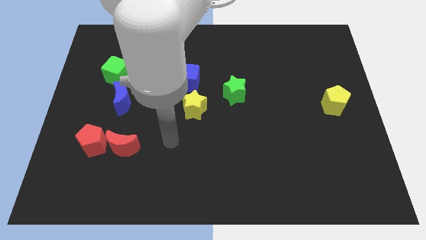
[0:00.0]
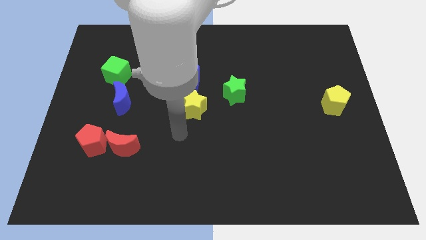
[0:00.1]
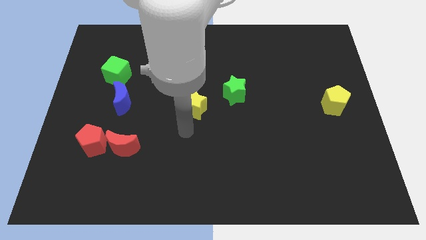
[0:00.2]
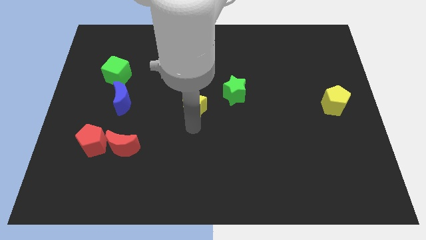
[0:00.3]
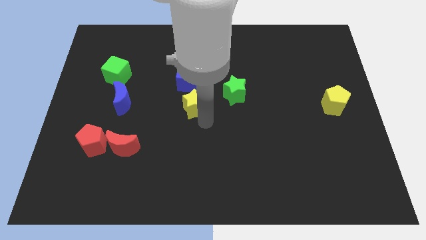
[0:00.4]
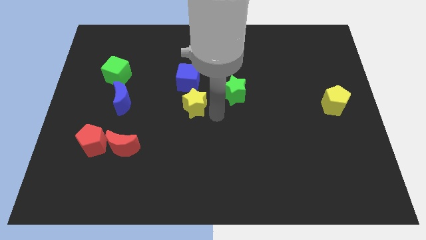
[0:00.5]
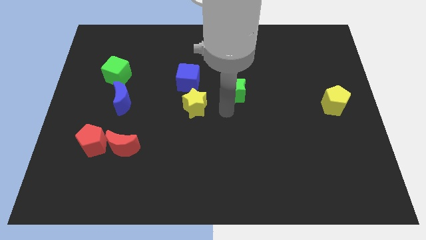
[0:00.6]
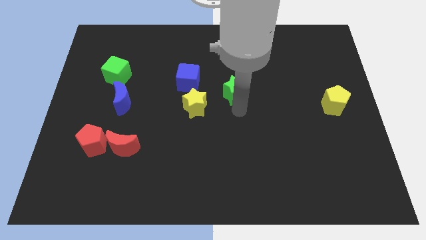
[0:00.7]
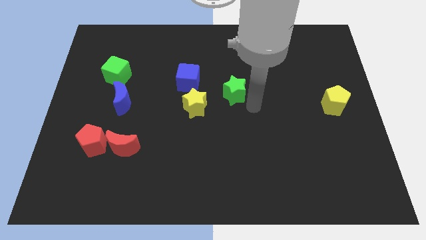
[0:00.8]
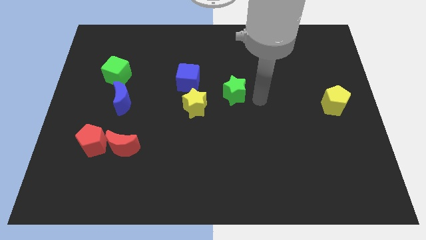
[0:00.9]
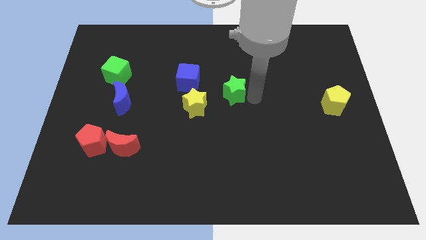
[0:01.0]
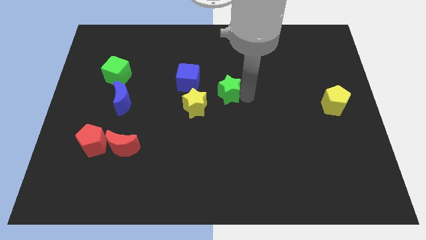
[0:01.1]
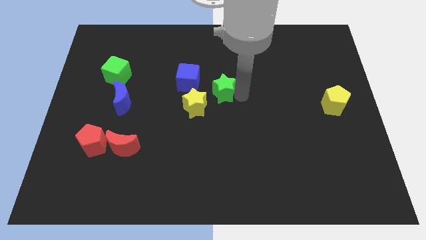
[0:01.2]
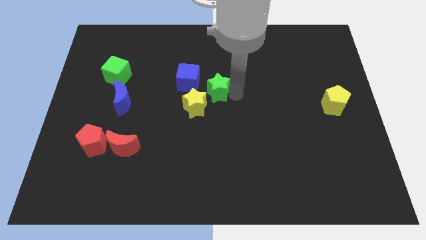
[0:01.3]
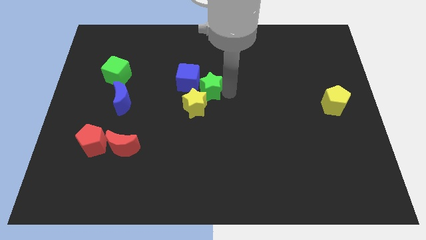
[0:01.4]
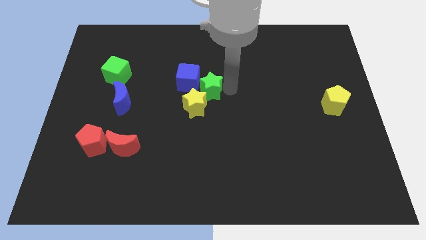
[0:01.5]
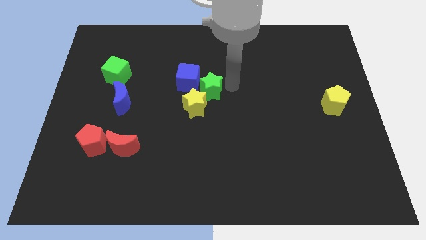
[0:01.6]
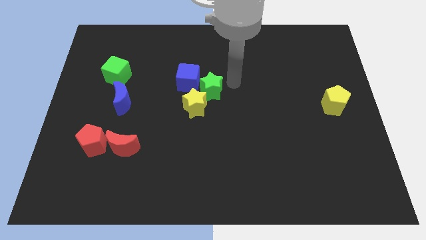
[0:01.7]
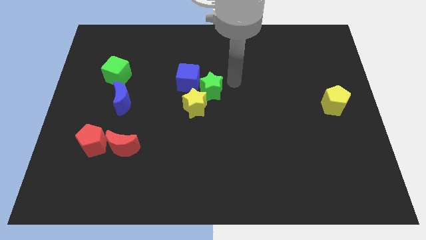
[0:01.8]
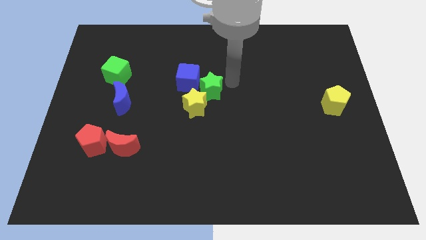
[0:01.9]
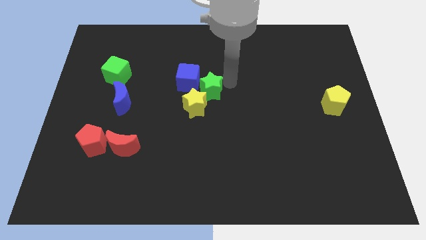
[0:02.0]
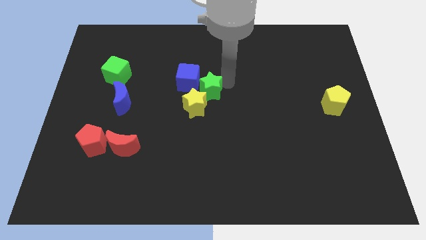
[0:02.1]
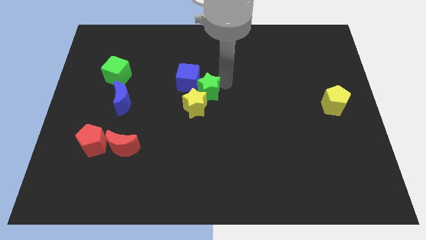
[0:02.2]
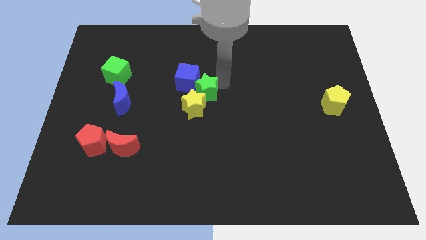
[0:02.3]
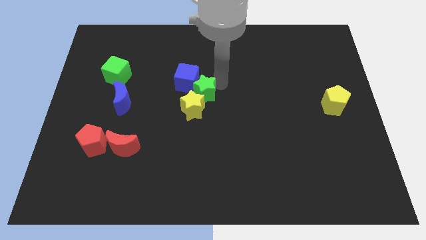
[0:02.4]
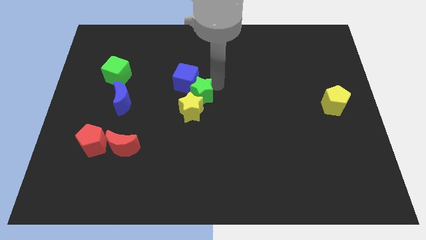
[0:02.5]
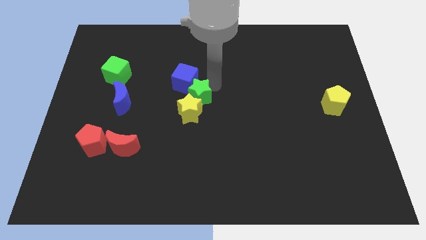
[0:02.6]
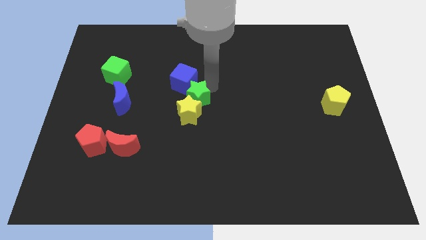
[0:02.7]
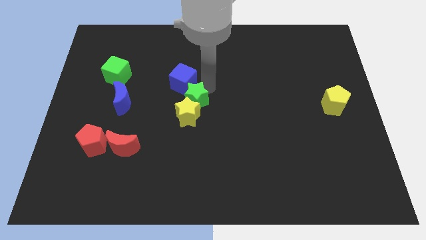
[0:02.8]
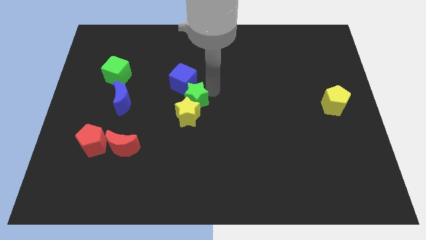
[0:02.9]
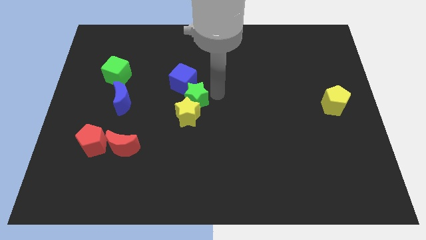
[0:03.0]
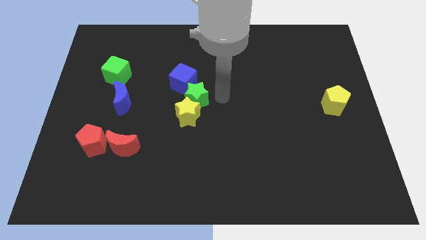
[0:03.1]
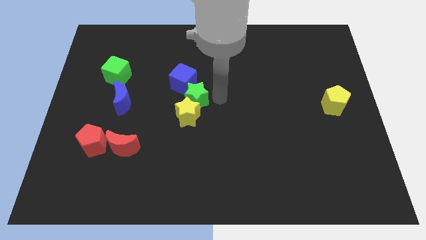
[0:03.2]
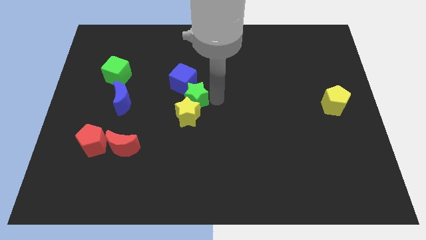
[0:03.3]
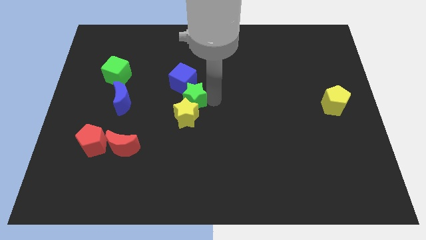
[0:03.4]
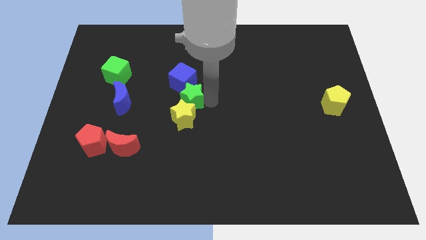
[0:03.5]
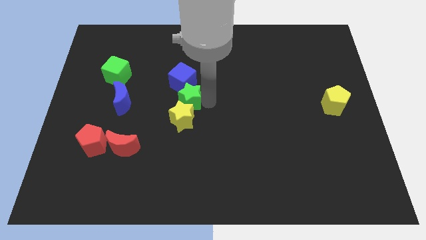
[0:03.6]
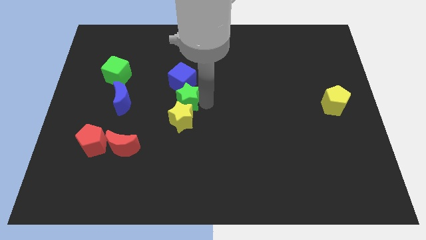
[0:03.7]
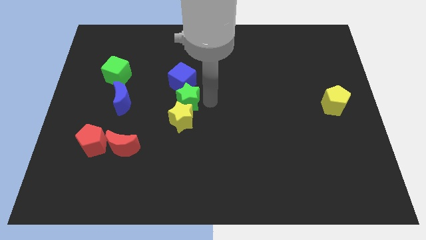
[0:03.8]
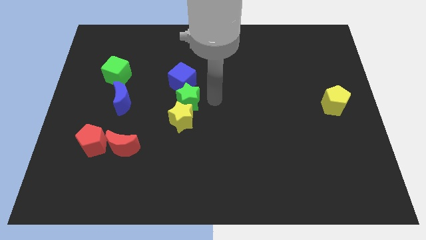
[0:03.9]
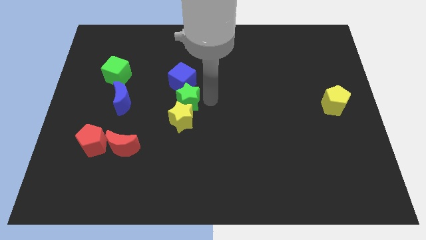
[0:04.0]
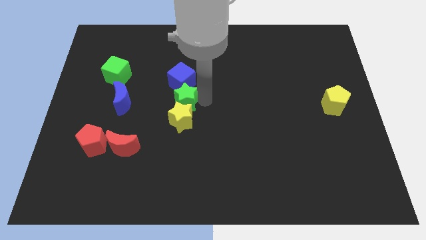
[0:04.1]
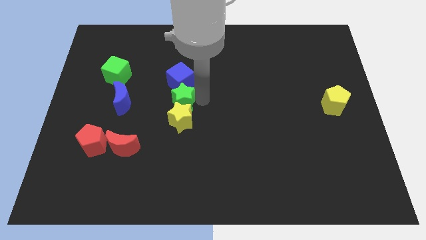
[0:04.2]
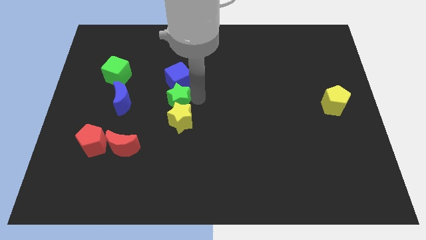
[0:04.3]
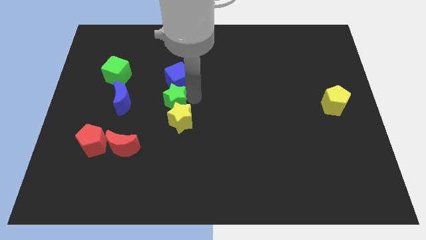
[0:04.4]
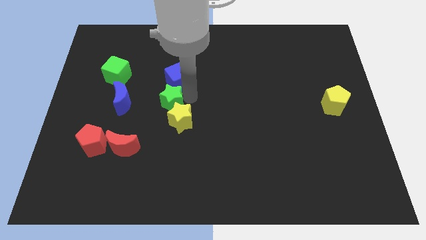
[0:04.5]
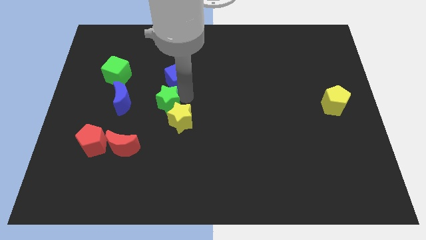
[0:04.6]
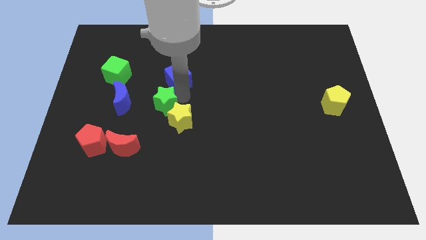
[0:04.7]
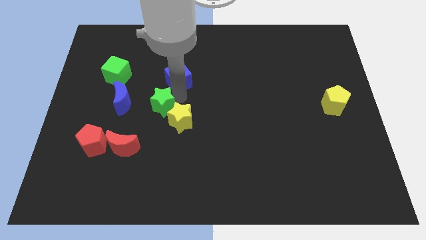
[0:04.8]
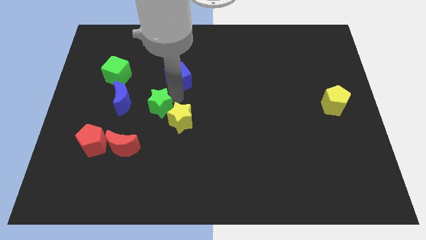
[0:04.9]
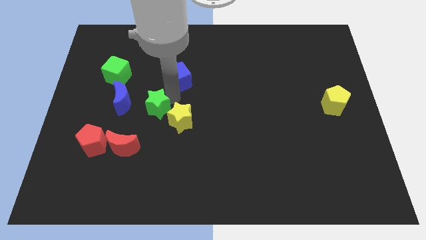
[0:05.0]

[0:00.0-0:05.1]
push the green star to the bottom right side of the blue moon

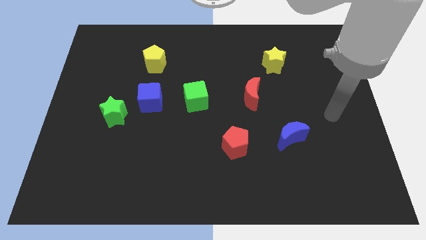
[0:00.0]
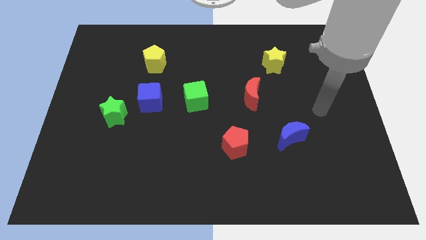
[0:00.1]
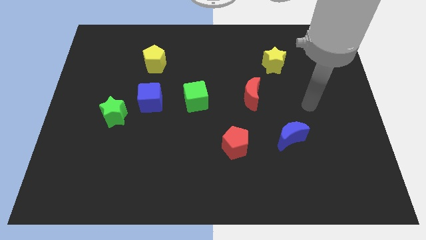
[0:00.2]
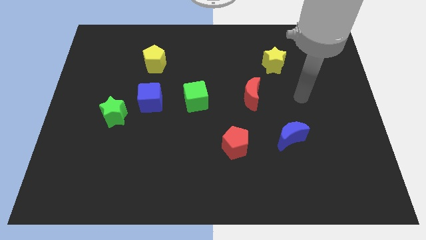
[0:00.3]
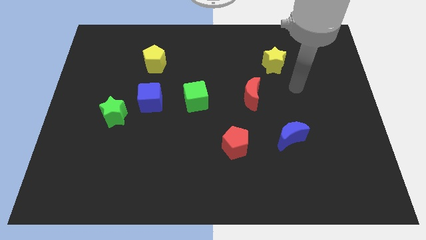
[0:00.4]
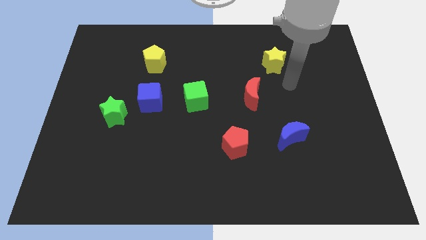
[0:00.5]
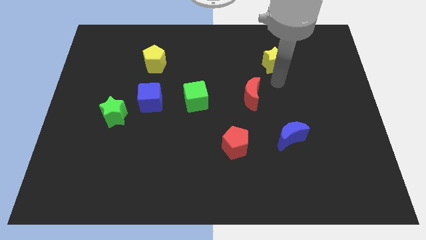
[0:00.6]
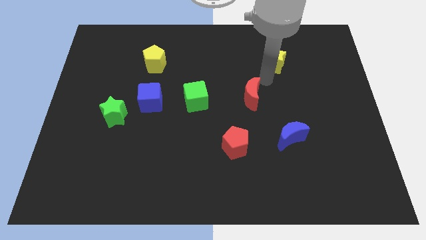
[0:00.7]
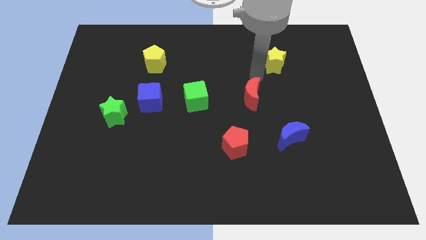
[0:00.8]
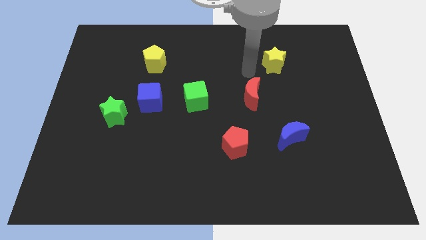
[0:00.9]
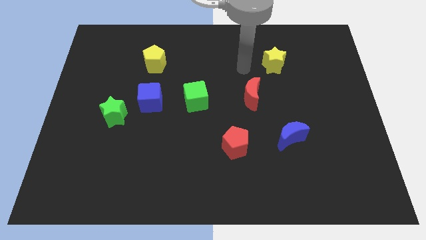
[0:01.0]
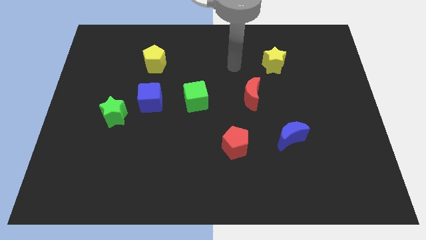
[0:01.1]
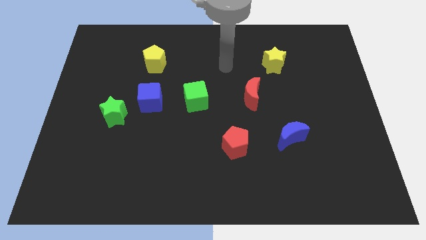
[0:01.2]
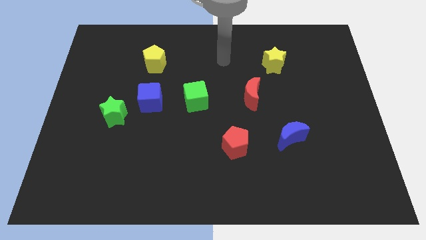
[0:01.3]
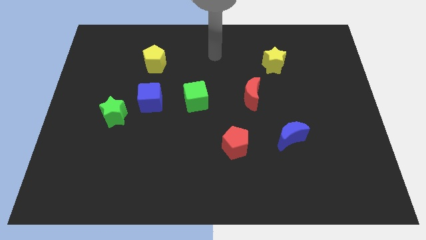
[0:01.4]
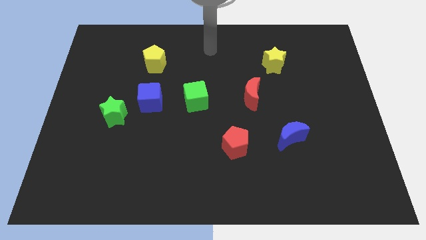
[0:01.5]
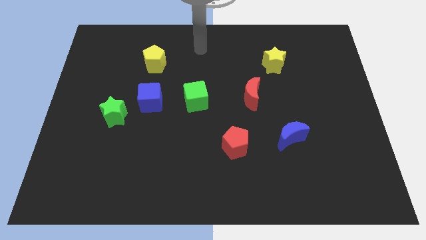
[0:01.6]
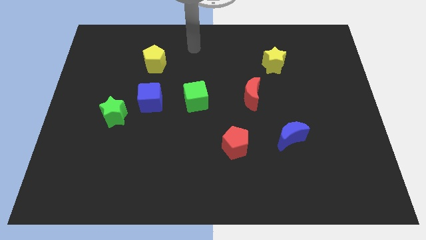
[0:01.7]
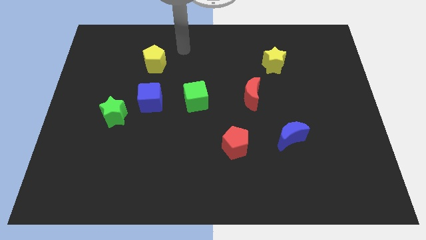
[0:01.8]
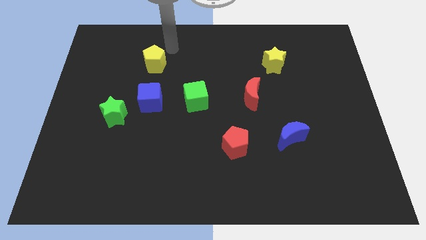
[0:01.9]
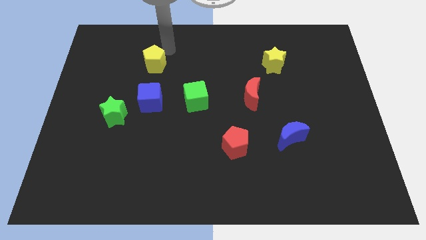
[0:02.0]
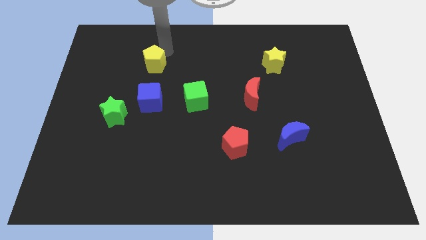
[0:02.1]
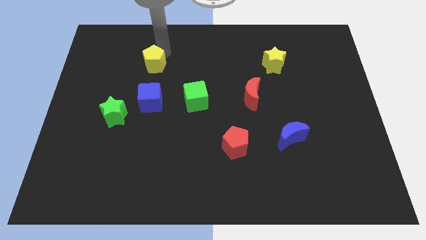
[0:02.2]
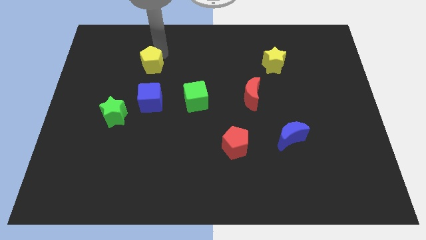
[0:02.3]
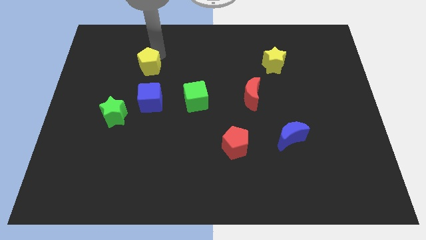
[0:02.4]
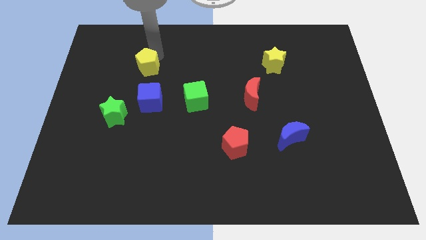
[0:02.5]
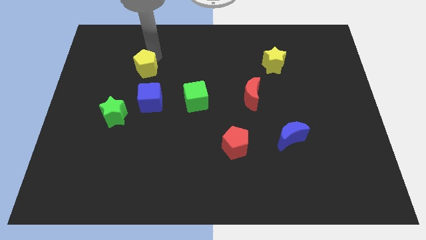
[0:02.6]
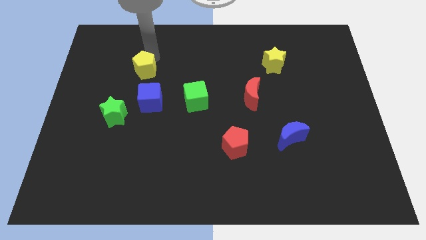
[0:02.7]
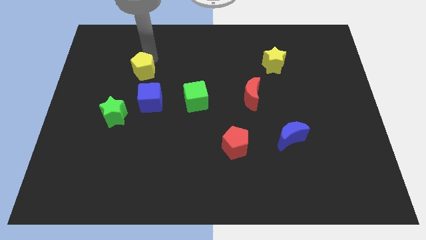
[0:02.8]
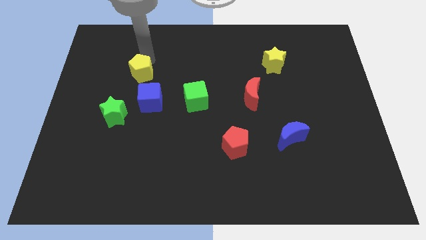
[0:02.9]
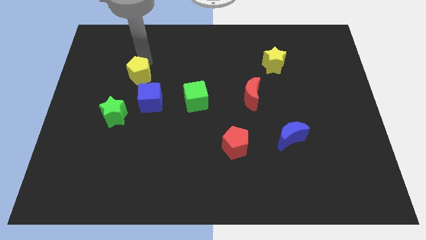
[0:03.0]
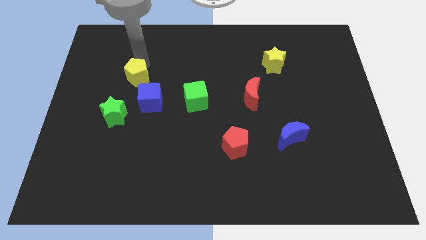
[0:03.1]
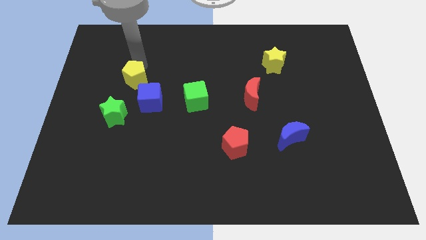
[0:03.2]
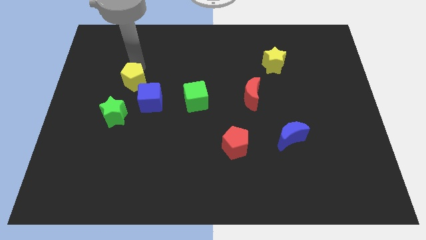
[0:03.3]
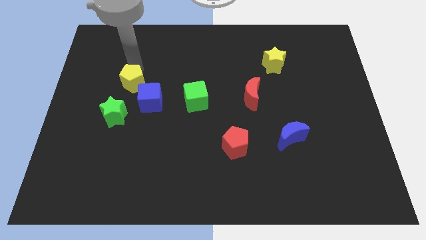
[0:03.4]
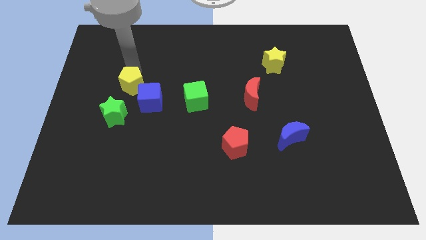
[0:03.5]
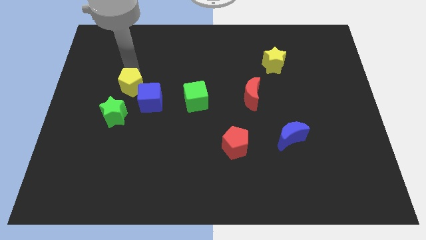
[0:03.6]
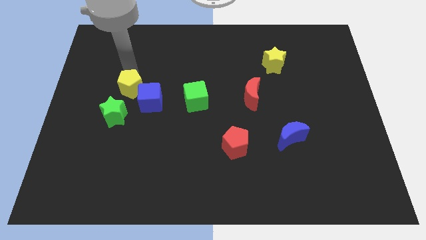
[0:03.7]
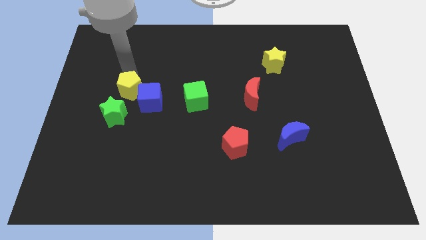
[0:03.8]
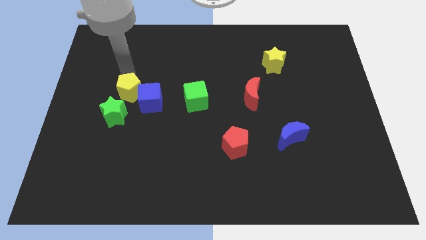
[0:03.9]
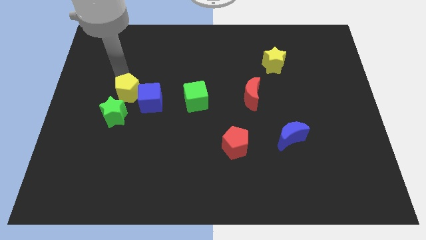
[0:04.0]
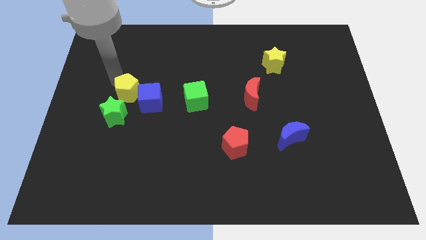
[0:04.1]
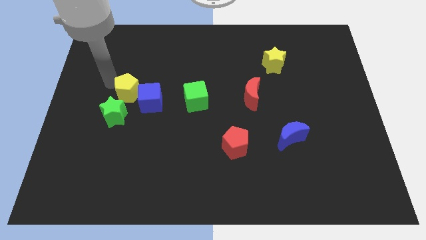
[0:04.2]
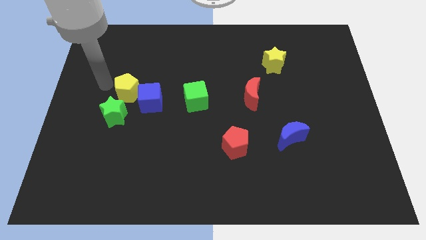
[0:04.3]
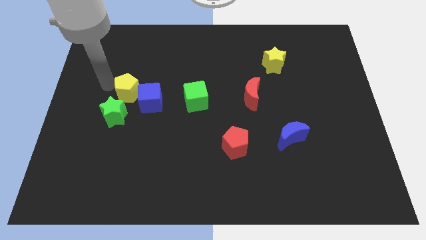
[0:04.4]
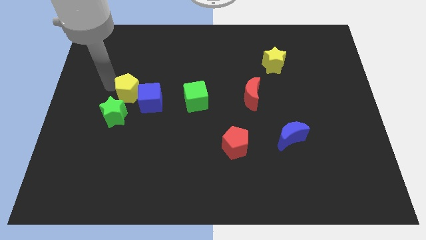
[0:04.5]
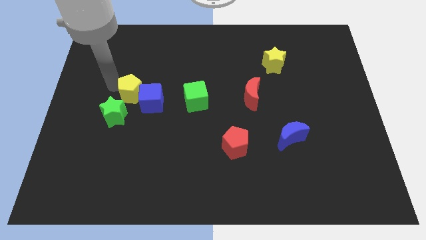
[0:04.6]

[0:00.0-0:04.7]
put the yellow pentagon to the left side of the green cube
